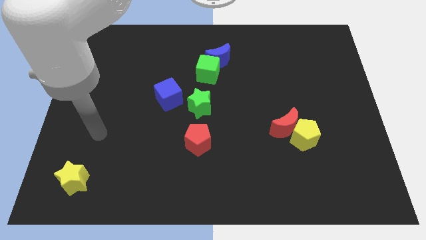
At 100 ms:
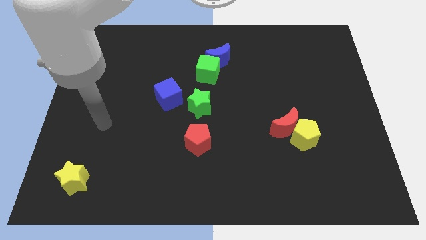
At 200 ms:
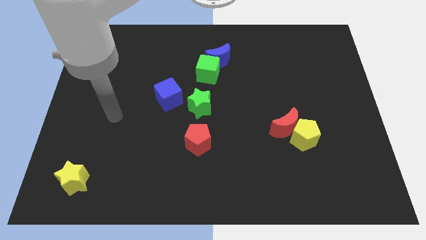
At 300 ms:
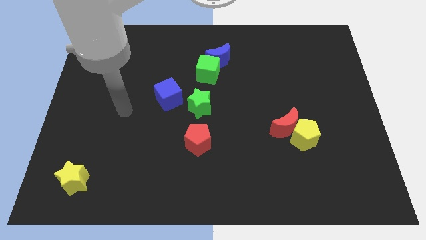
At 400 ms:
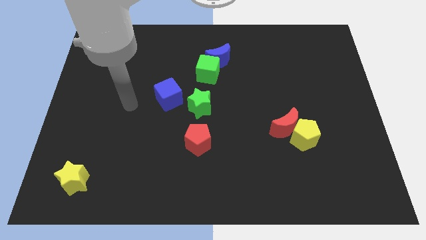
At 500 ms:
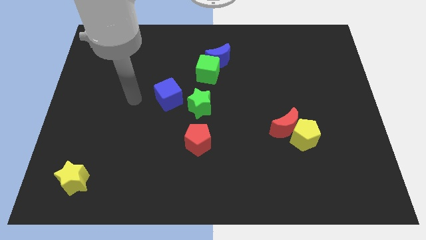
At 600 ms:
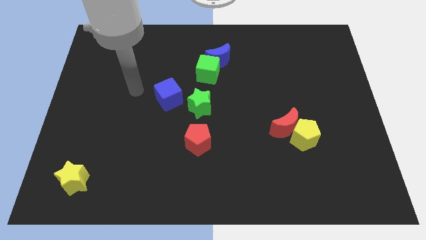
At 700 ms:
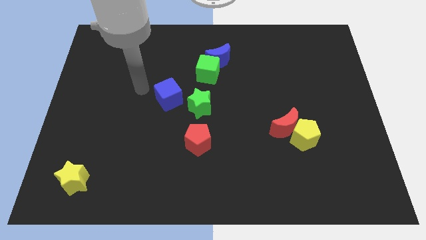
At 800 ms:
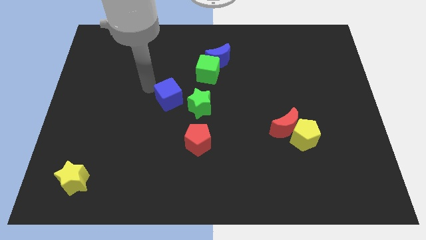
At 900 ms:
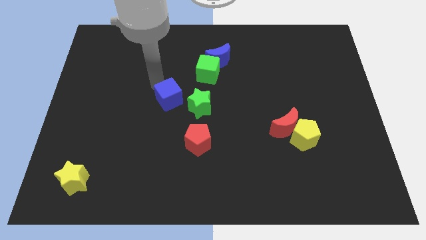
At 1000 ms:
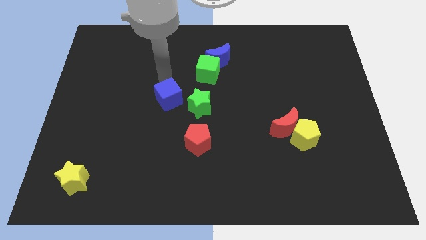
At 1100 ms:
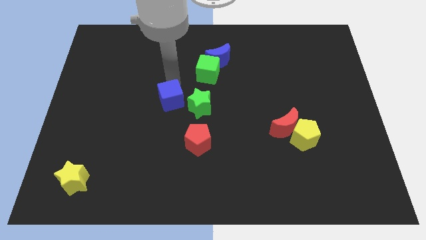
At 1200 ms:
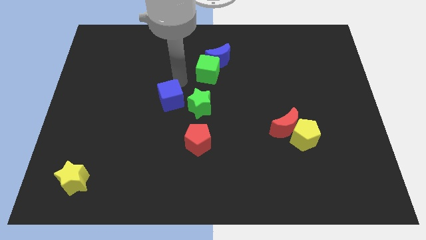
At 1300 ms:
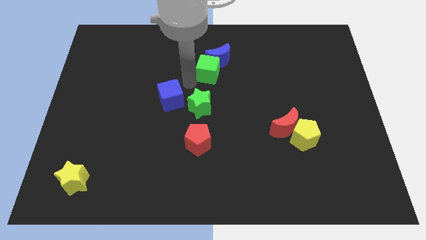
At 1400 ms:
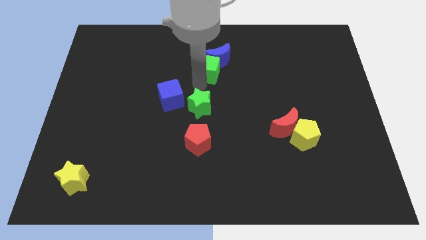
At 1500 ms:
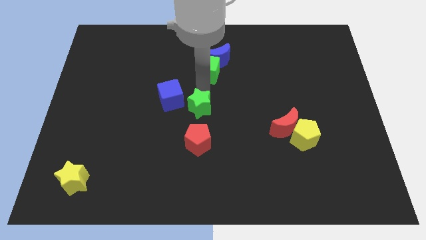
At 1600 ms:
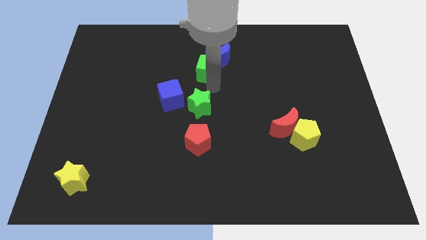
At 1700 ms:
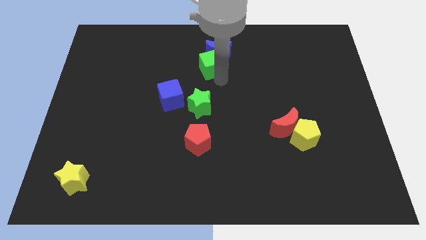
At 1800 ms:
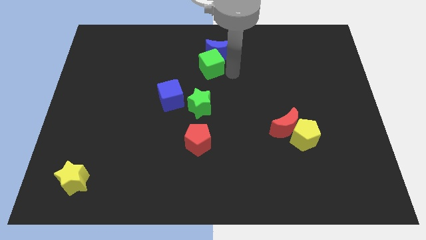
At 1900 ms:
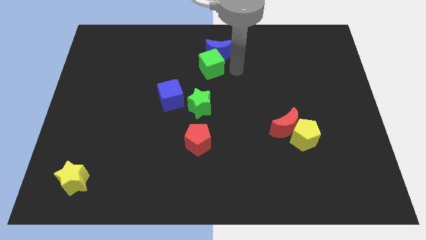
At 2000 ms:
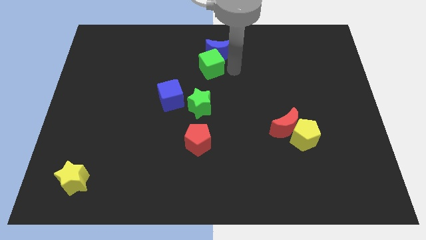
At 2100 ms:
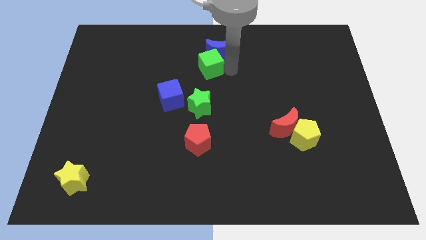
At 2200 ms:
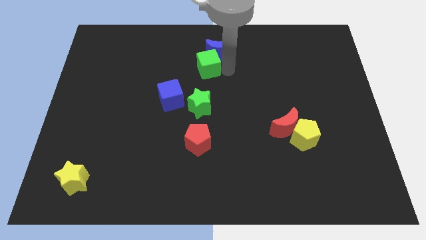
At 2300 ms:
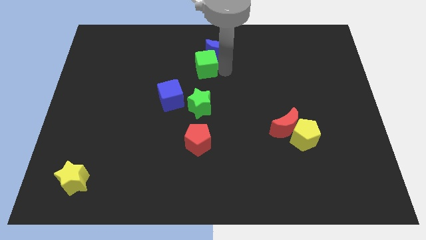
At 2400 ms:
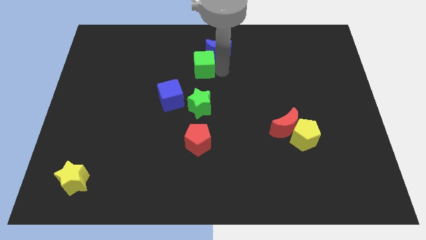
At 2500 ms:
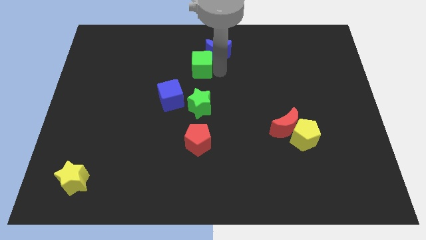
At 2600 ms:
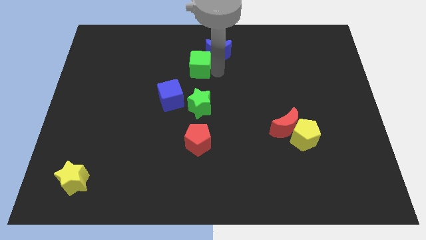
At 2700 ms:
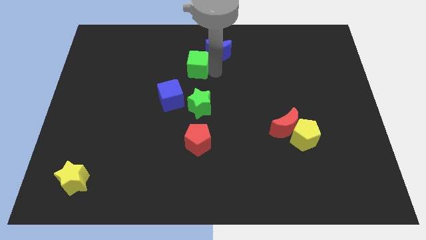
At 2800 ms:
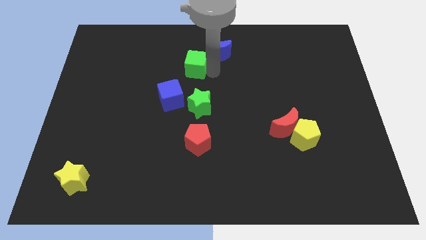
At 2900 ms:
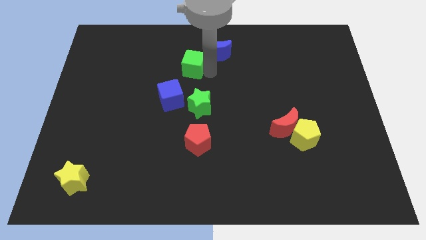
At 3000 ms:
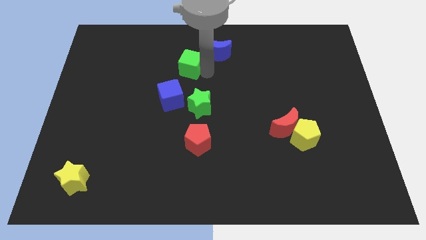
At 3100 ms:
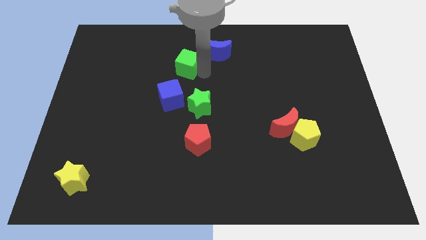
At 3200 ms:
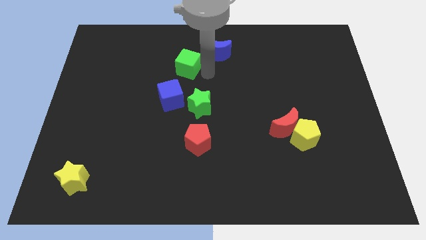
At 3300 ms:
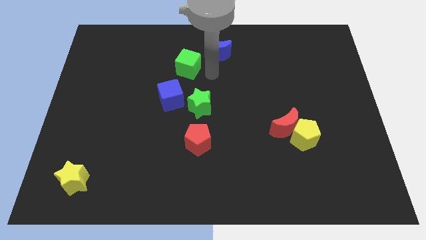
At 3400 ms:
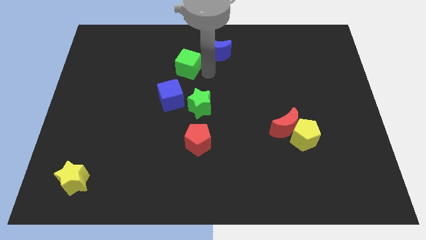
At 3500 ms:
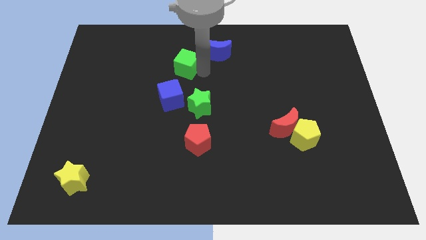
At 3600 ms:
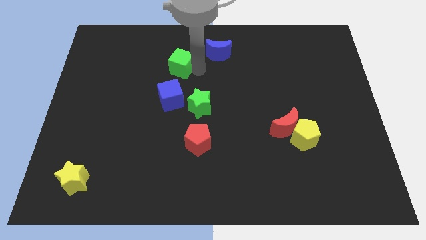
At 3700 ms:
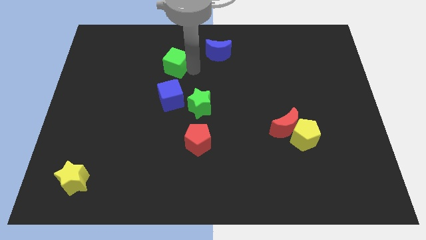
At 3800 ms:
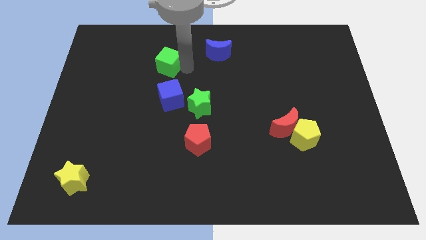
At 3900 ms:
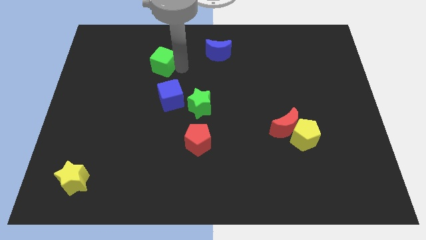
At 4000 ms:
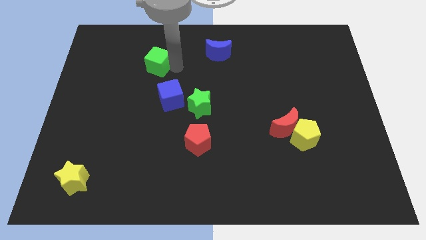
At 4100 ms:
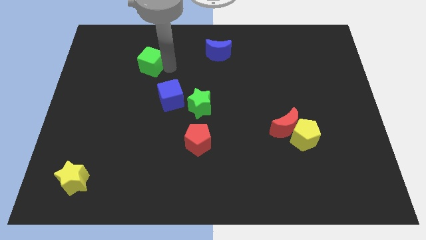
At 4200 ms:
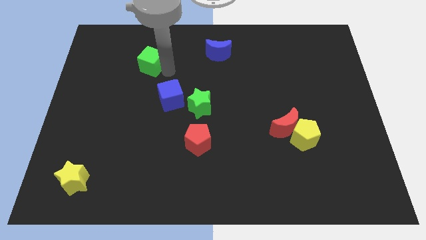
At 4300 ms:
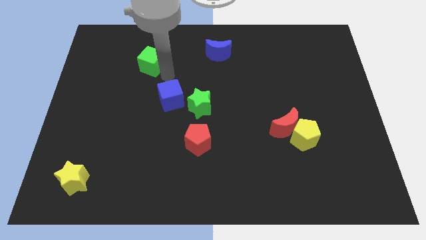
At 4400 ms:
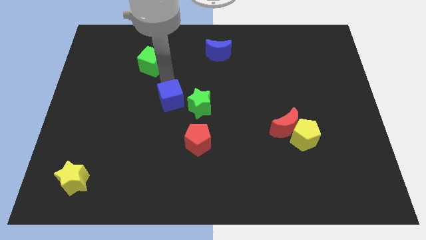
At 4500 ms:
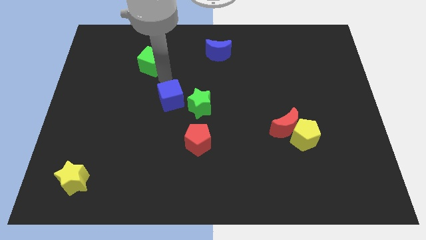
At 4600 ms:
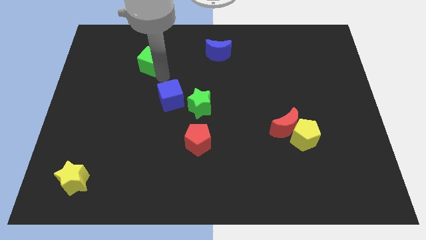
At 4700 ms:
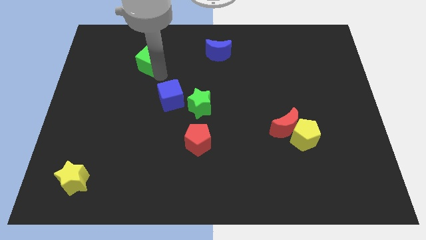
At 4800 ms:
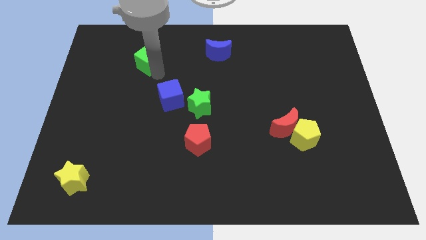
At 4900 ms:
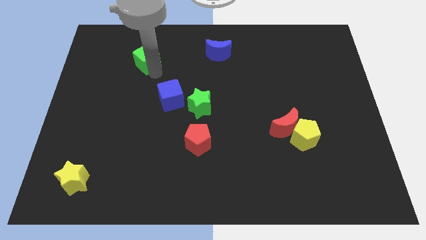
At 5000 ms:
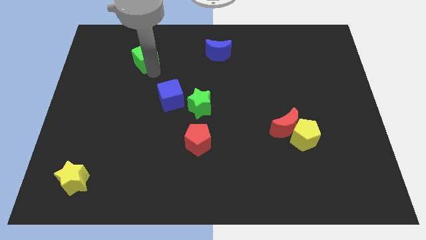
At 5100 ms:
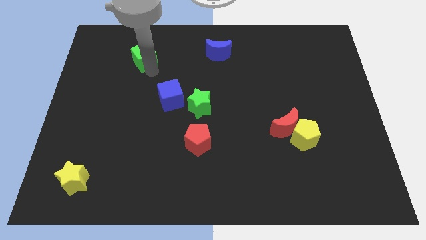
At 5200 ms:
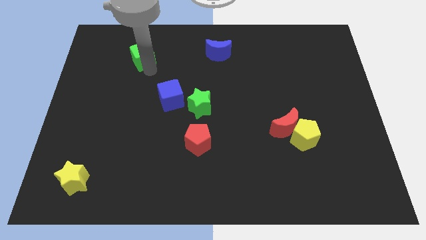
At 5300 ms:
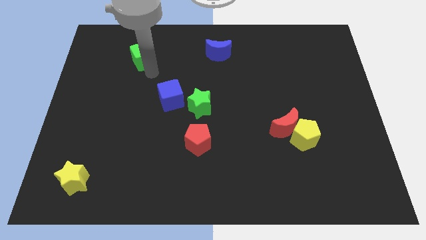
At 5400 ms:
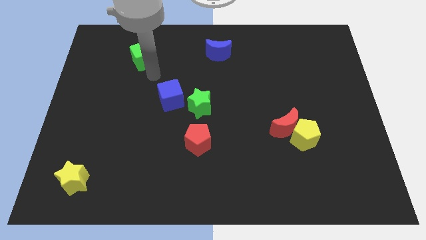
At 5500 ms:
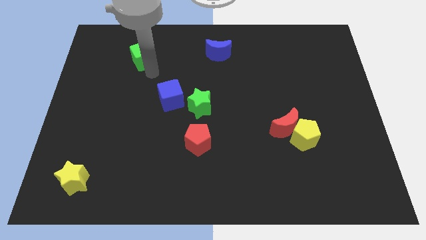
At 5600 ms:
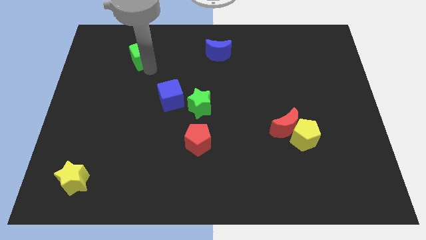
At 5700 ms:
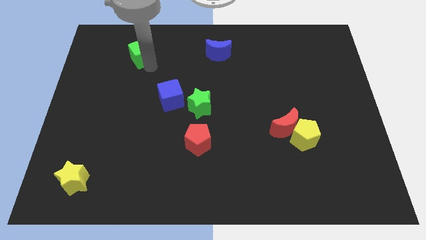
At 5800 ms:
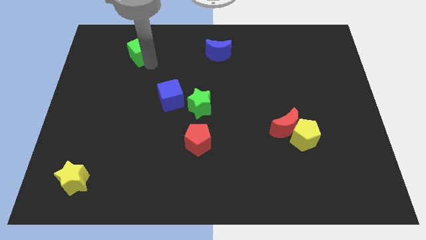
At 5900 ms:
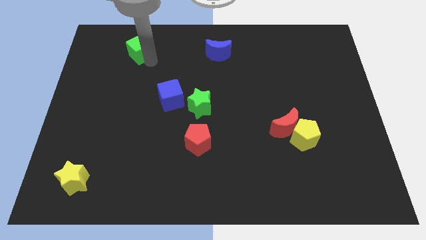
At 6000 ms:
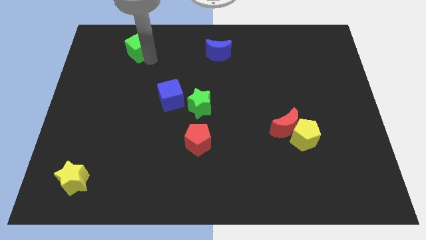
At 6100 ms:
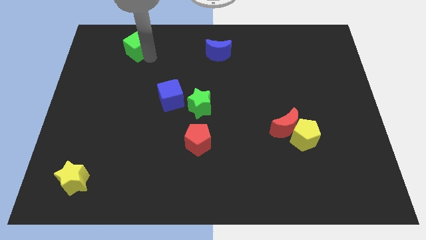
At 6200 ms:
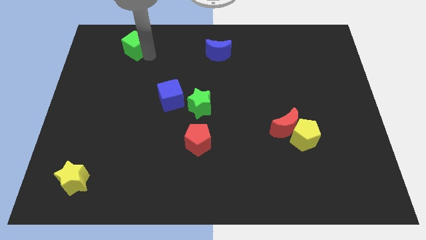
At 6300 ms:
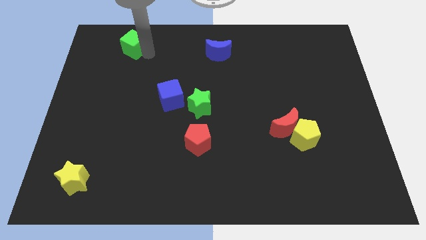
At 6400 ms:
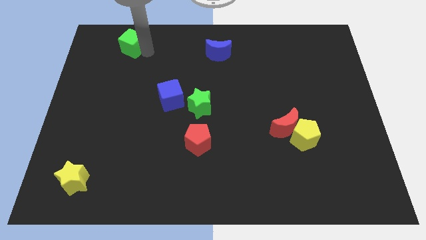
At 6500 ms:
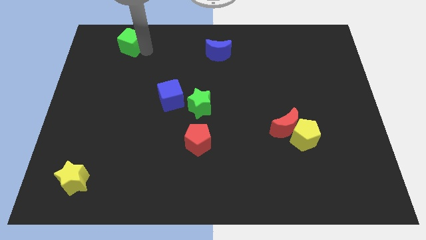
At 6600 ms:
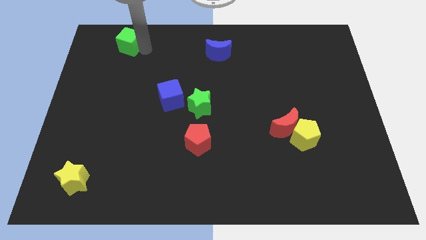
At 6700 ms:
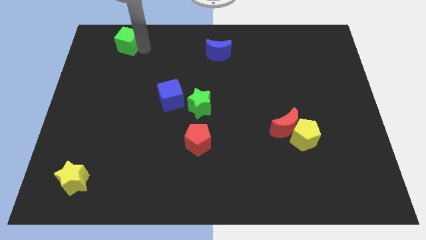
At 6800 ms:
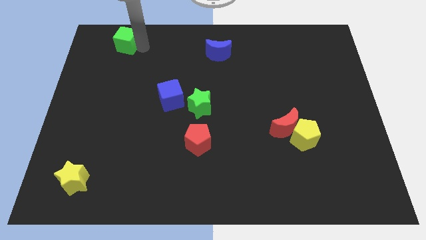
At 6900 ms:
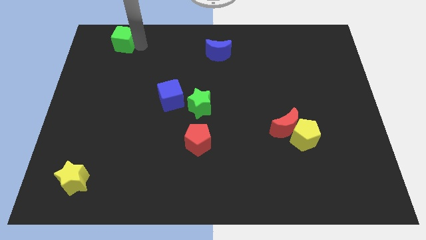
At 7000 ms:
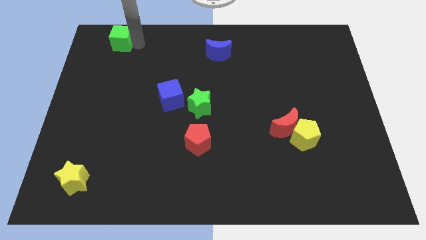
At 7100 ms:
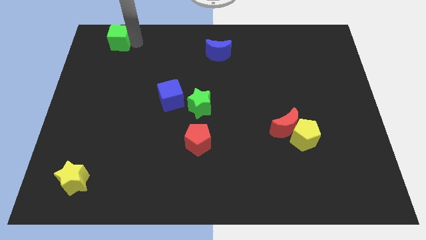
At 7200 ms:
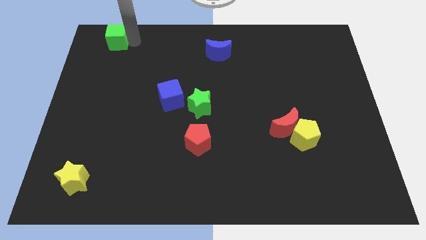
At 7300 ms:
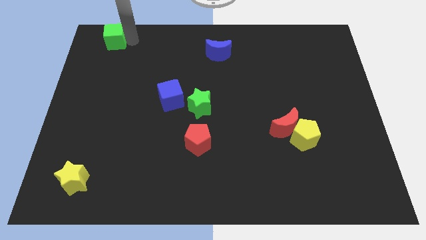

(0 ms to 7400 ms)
push the green cube to the top left corner

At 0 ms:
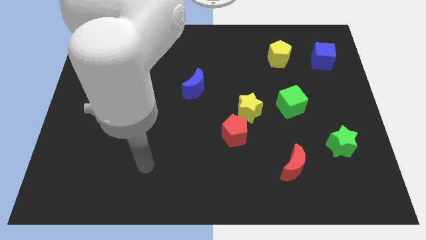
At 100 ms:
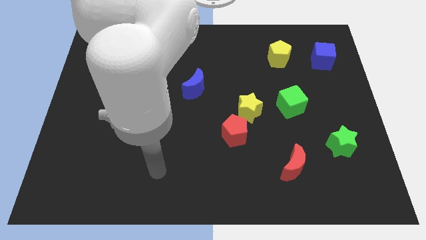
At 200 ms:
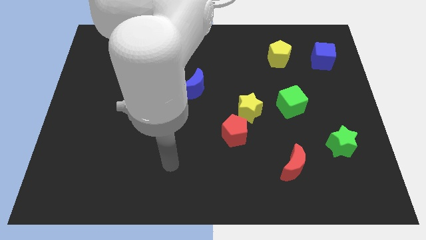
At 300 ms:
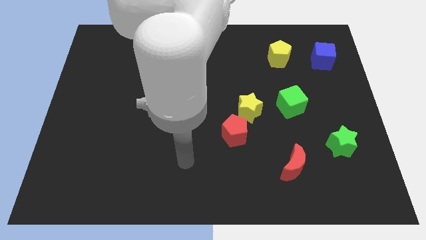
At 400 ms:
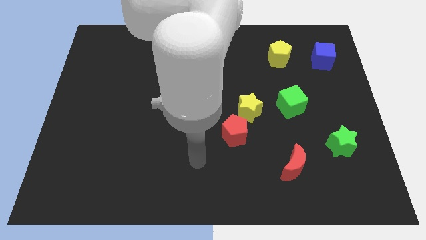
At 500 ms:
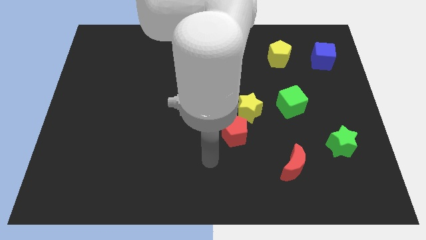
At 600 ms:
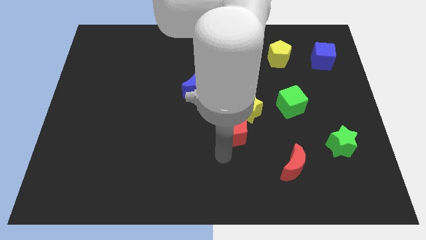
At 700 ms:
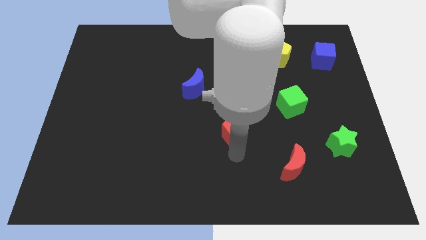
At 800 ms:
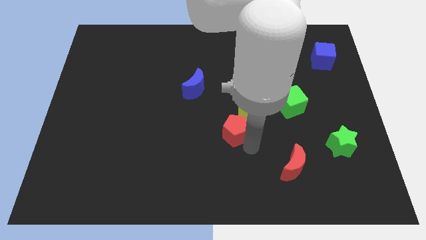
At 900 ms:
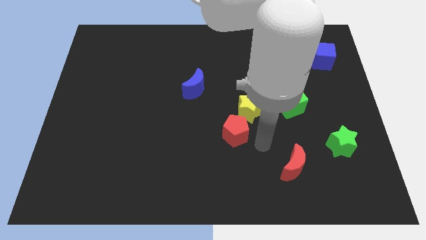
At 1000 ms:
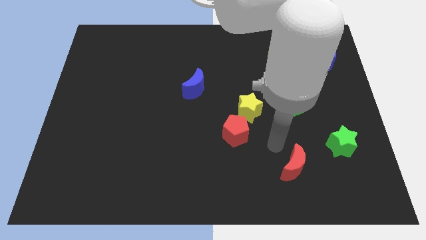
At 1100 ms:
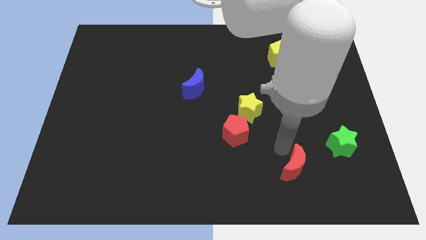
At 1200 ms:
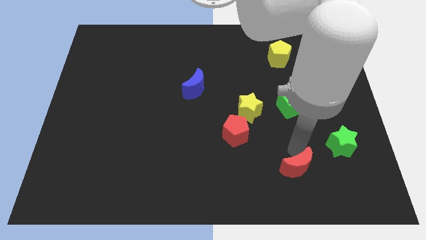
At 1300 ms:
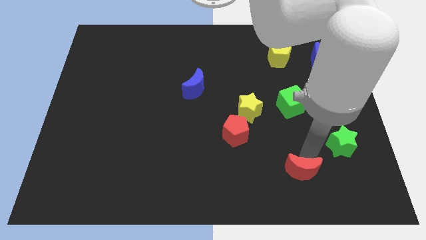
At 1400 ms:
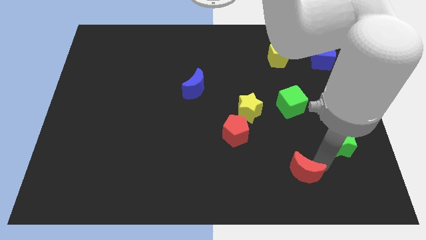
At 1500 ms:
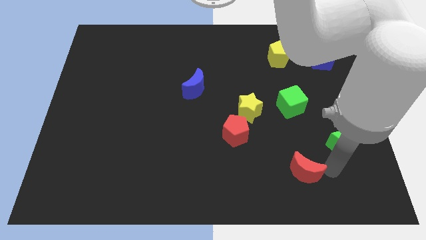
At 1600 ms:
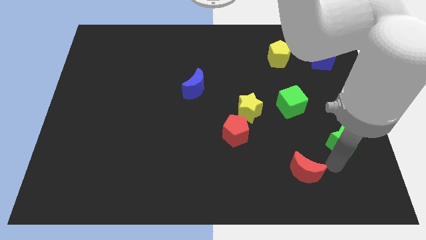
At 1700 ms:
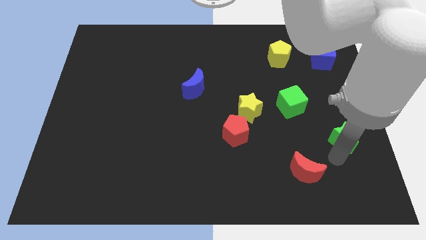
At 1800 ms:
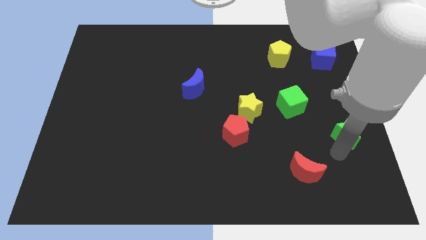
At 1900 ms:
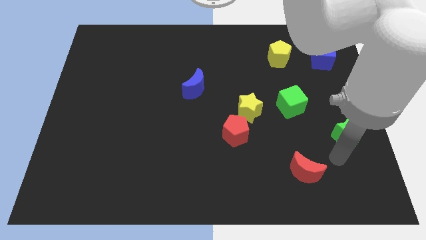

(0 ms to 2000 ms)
slide the green star to the right side of the board
